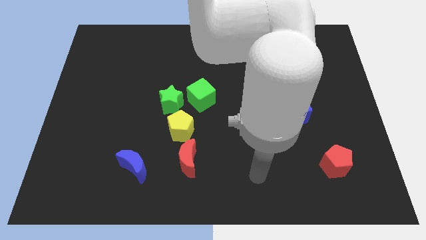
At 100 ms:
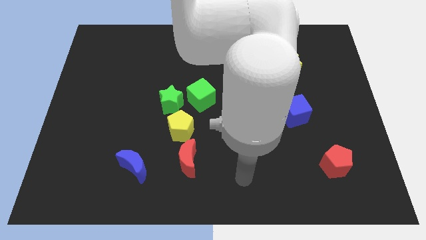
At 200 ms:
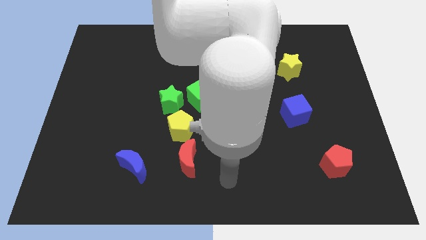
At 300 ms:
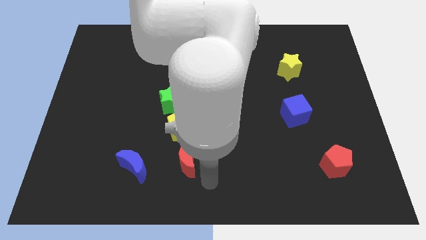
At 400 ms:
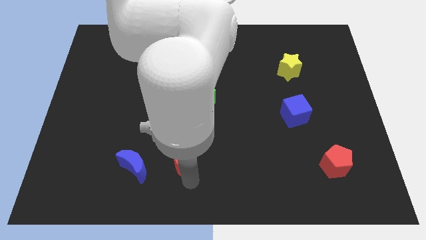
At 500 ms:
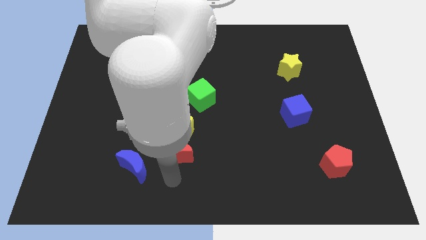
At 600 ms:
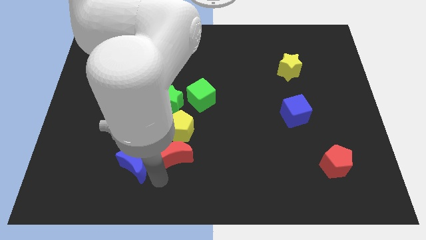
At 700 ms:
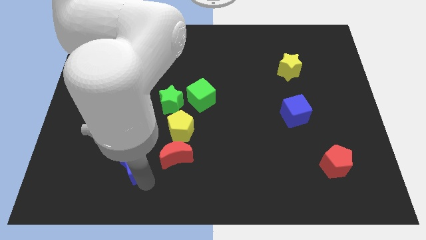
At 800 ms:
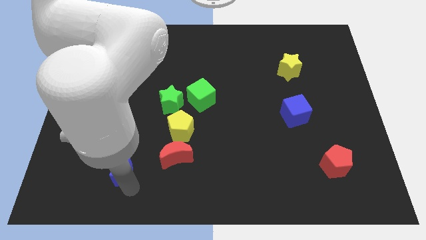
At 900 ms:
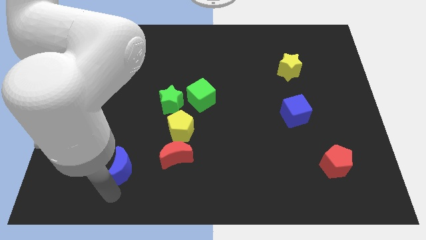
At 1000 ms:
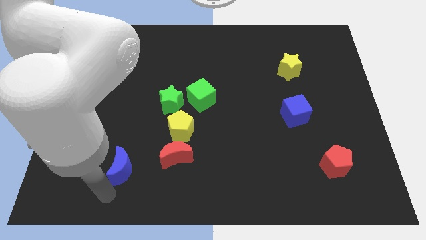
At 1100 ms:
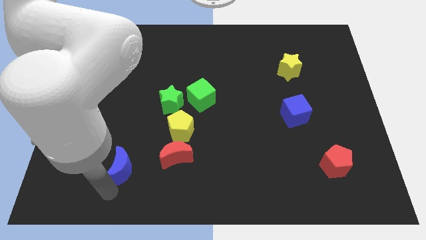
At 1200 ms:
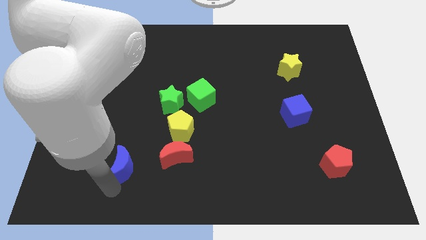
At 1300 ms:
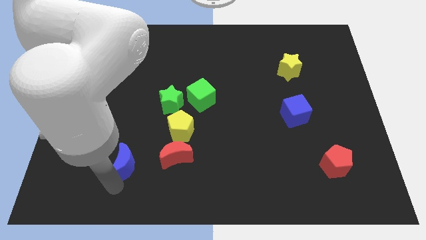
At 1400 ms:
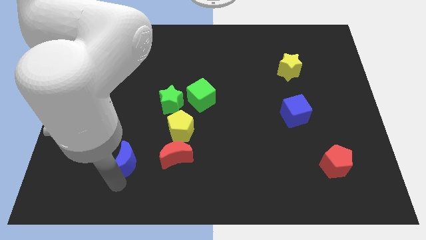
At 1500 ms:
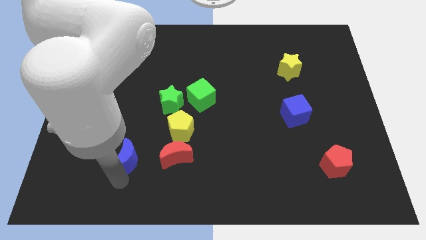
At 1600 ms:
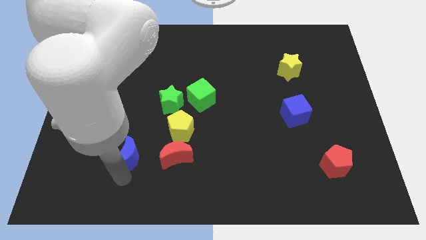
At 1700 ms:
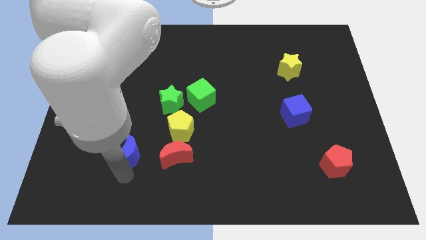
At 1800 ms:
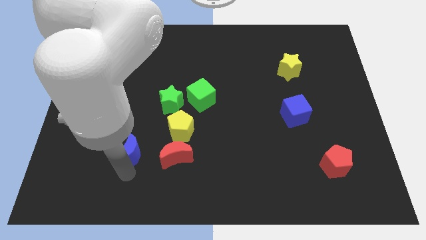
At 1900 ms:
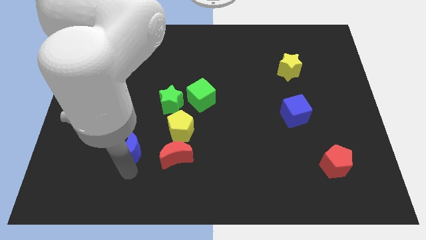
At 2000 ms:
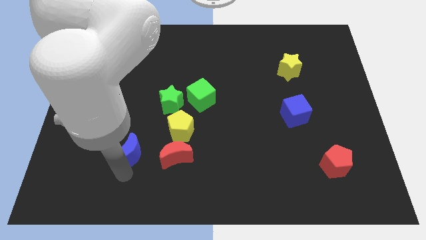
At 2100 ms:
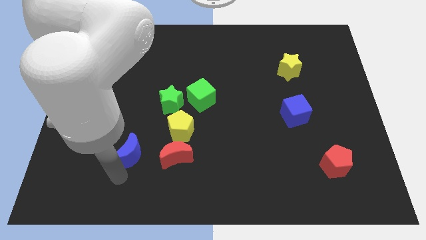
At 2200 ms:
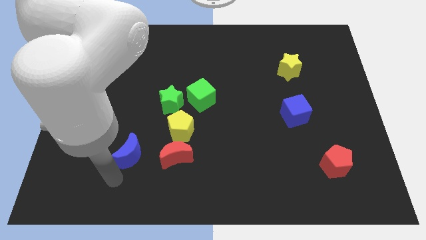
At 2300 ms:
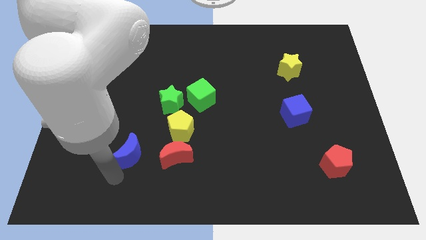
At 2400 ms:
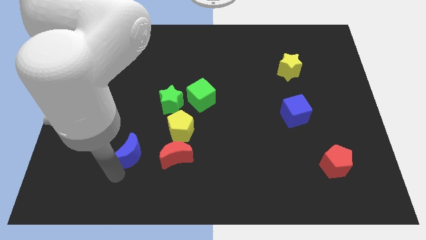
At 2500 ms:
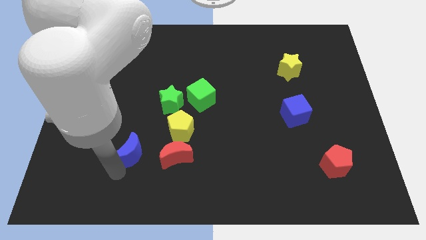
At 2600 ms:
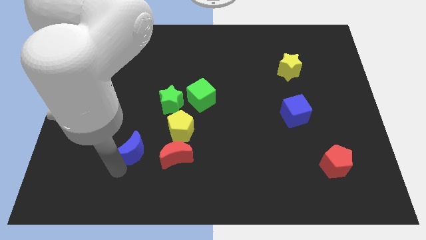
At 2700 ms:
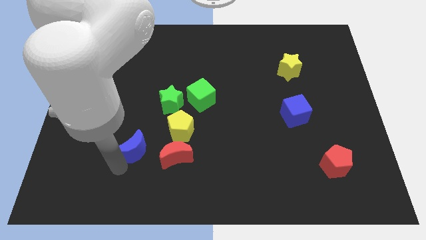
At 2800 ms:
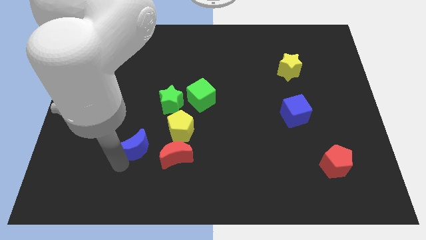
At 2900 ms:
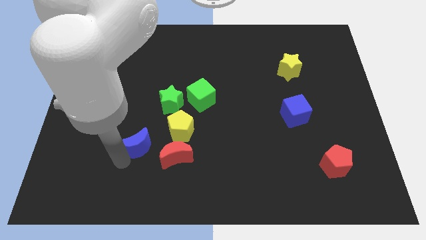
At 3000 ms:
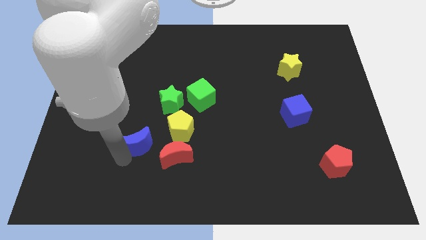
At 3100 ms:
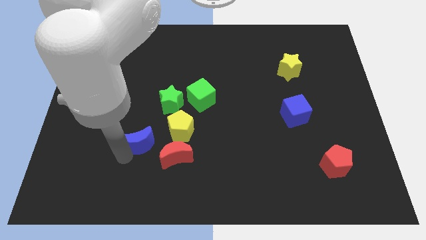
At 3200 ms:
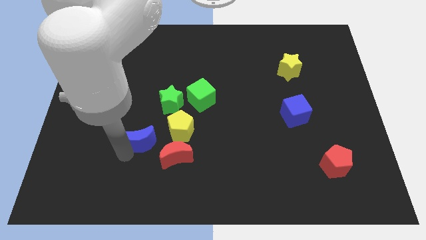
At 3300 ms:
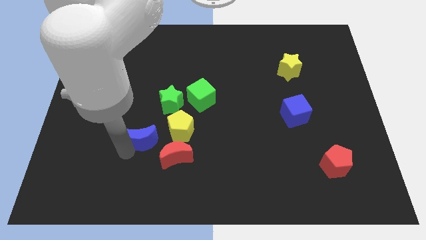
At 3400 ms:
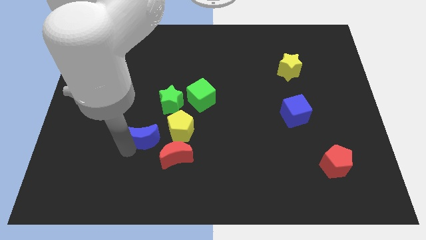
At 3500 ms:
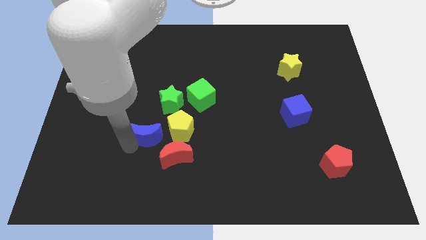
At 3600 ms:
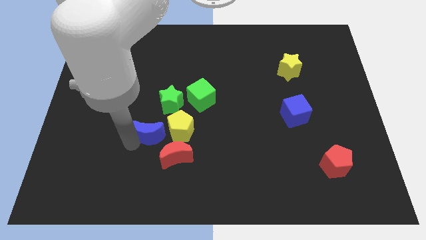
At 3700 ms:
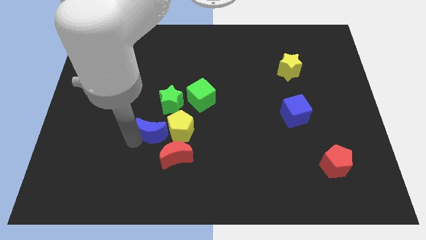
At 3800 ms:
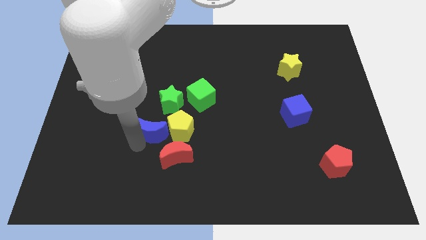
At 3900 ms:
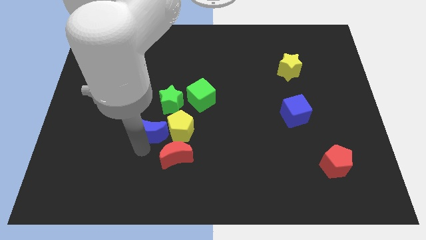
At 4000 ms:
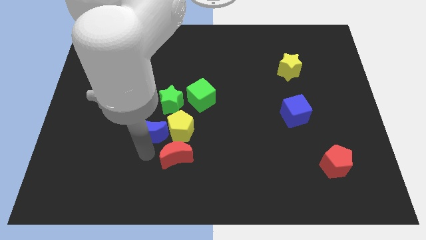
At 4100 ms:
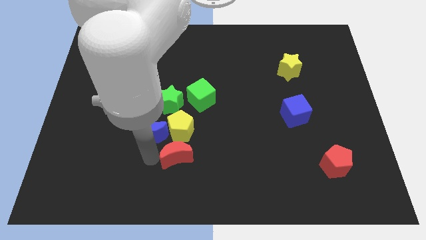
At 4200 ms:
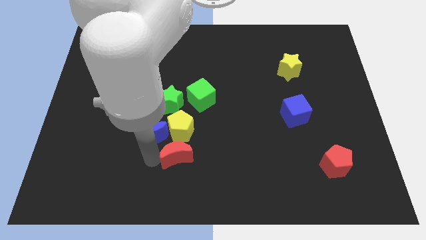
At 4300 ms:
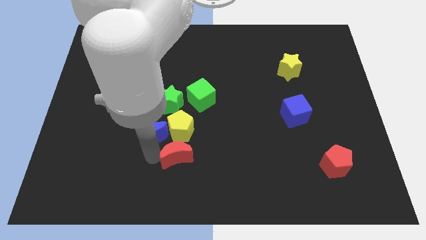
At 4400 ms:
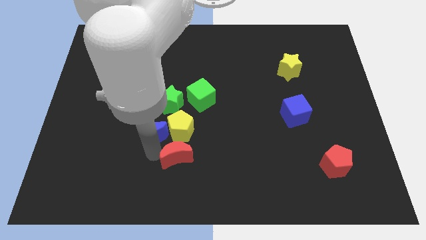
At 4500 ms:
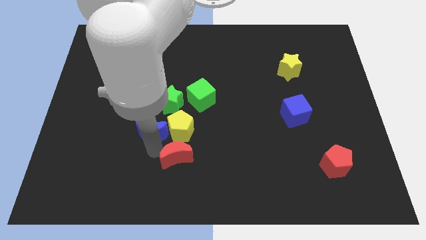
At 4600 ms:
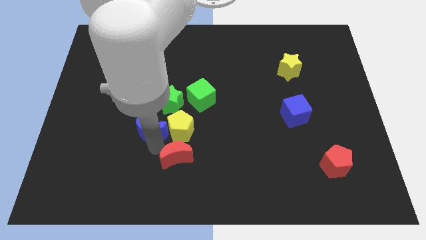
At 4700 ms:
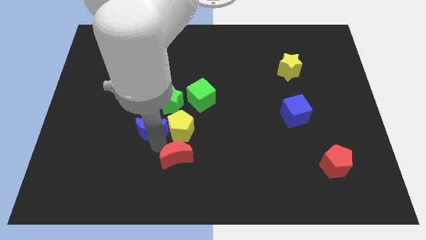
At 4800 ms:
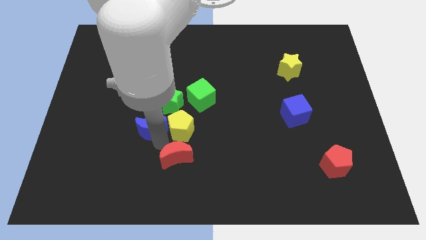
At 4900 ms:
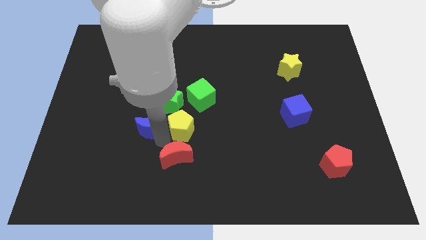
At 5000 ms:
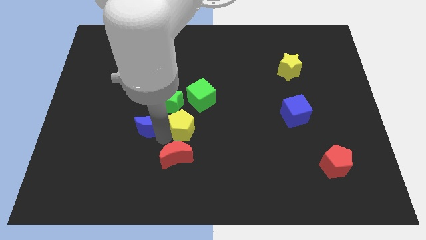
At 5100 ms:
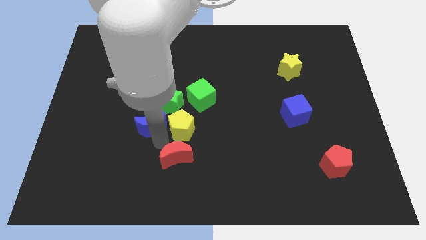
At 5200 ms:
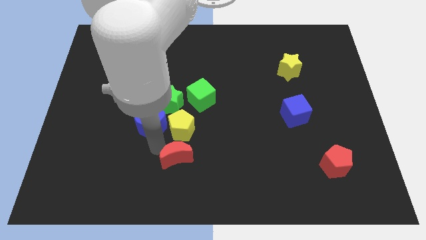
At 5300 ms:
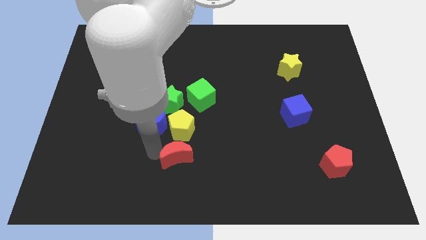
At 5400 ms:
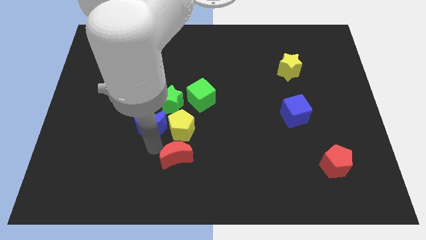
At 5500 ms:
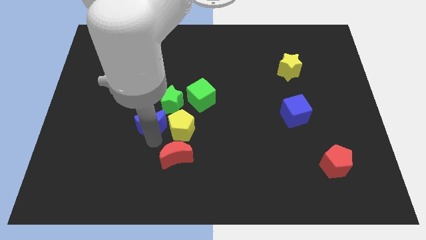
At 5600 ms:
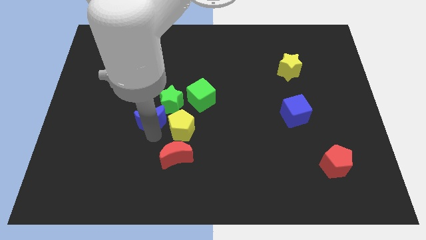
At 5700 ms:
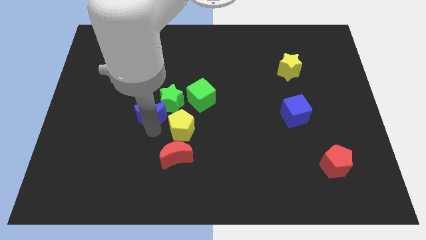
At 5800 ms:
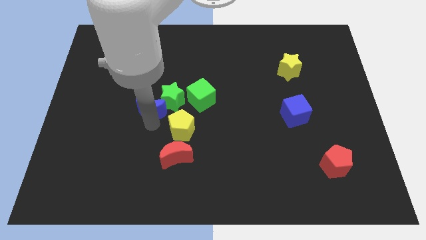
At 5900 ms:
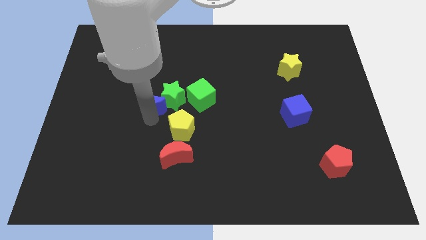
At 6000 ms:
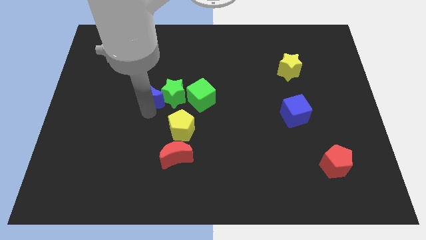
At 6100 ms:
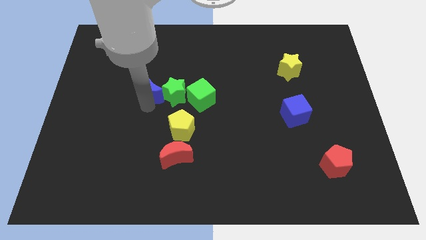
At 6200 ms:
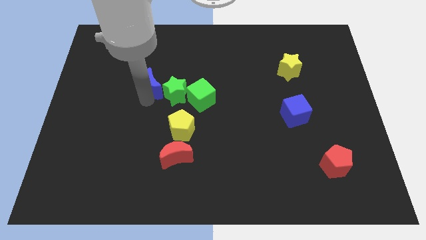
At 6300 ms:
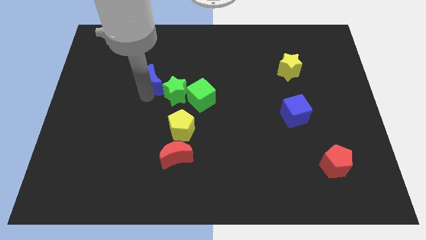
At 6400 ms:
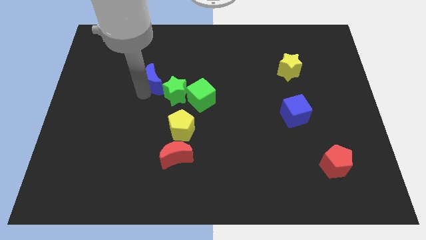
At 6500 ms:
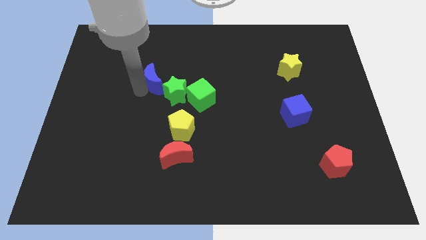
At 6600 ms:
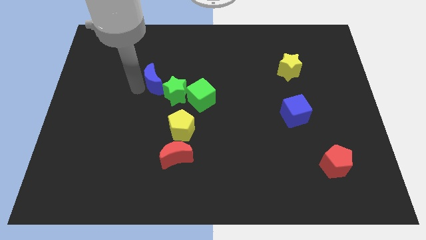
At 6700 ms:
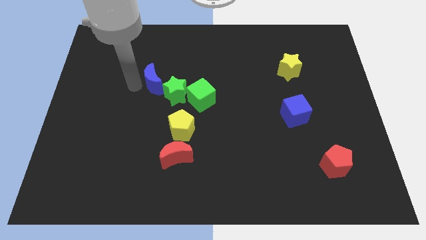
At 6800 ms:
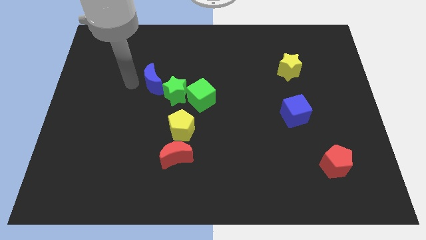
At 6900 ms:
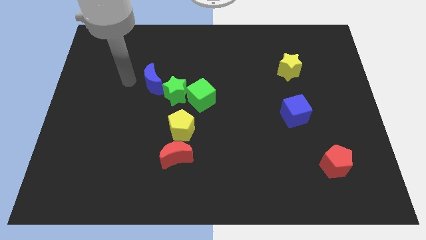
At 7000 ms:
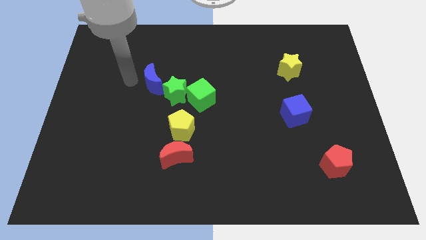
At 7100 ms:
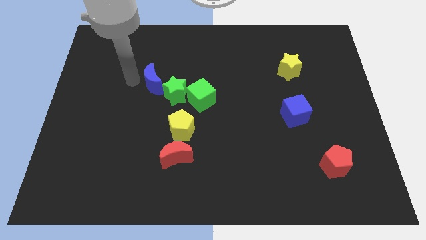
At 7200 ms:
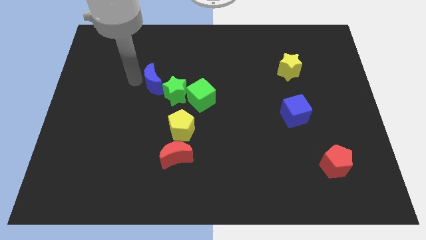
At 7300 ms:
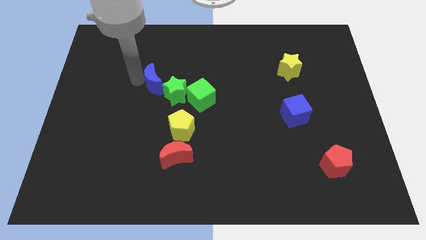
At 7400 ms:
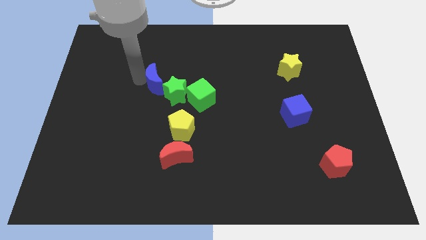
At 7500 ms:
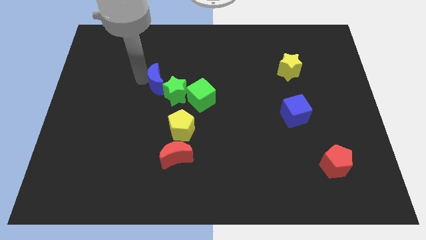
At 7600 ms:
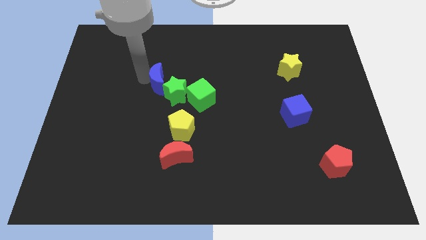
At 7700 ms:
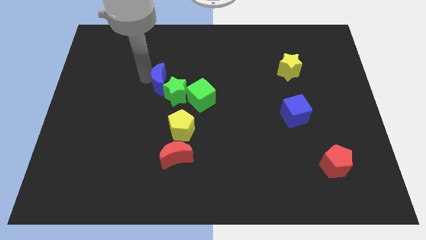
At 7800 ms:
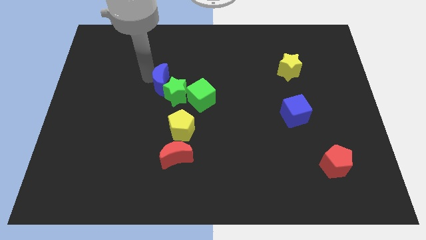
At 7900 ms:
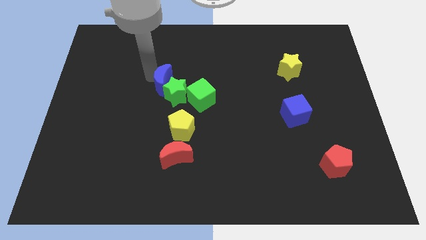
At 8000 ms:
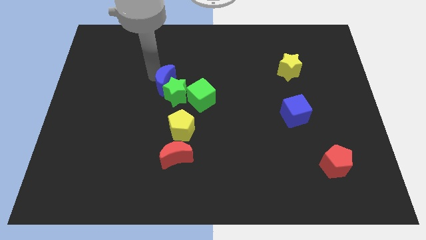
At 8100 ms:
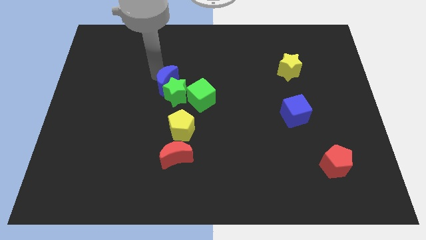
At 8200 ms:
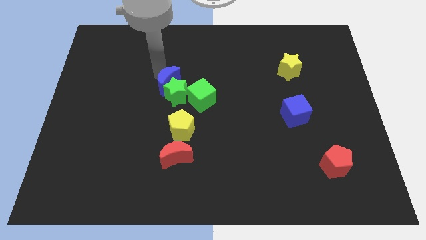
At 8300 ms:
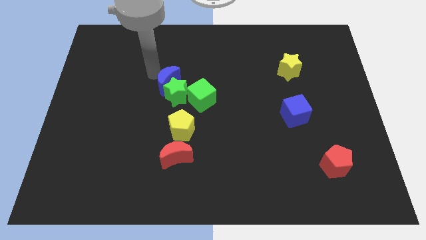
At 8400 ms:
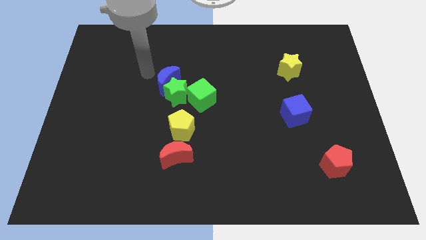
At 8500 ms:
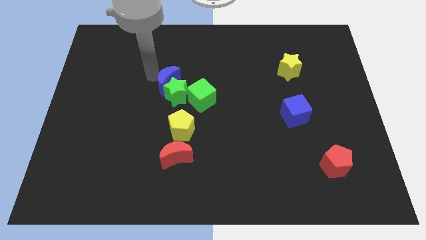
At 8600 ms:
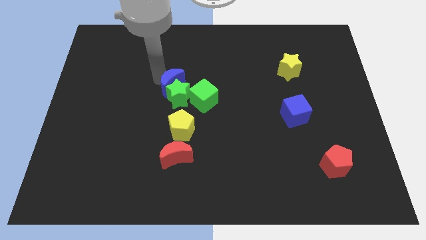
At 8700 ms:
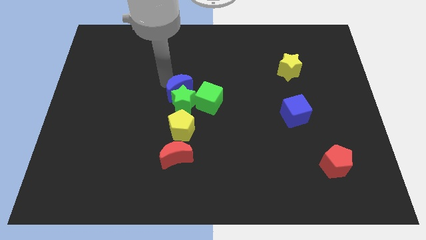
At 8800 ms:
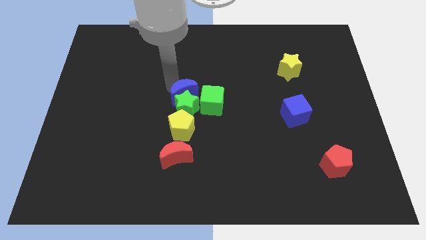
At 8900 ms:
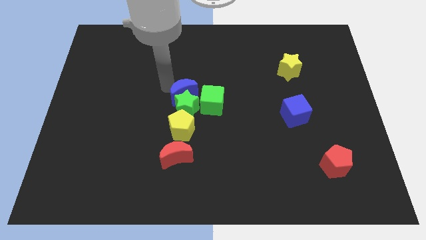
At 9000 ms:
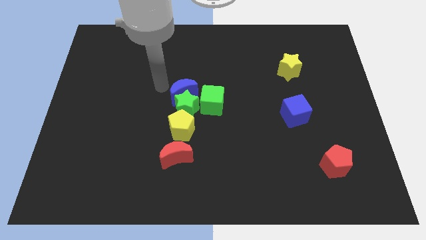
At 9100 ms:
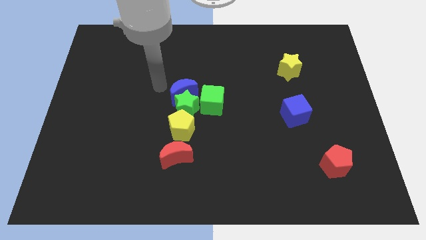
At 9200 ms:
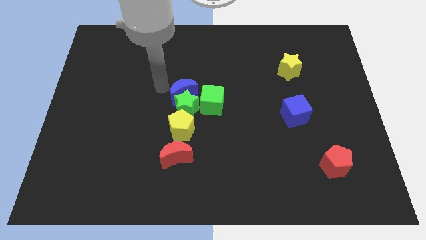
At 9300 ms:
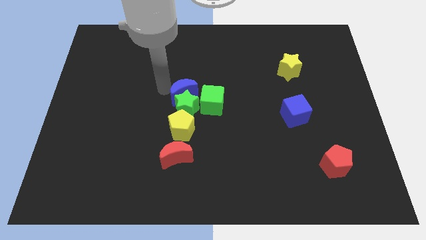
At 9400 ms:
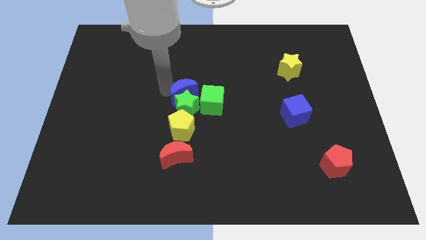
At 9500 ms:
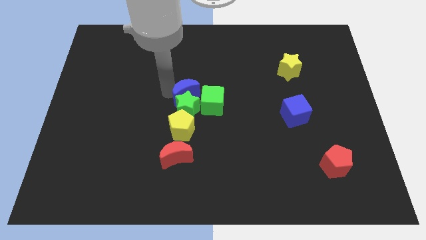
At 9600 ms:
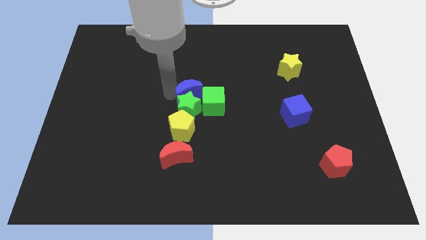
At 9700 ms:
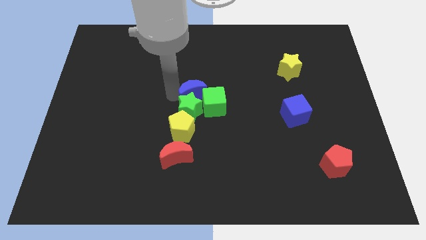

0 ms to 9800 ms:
slide the blue moon next to the green cube
